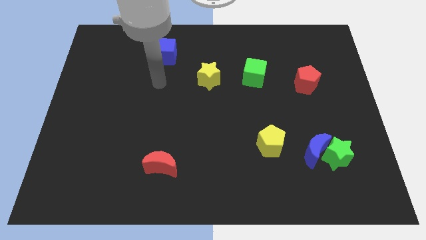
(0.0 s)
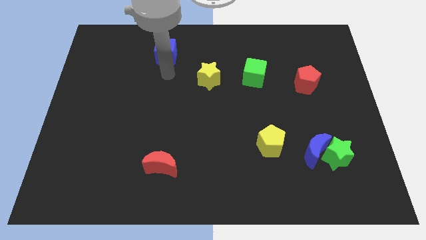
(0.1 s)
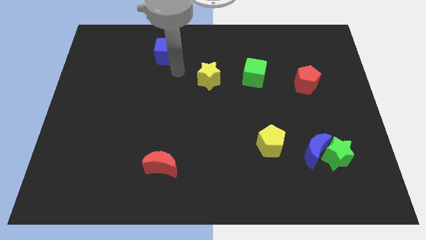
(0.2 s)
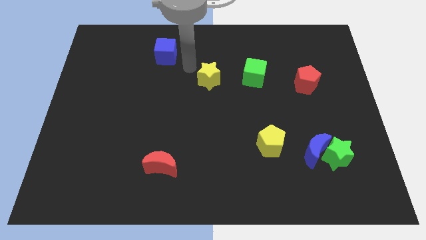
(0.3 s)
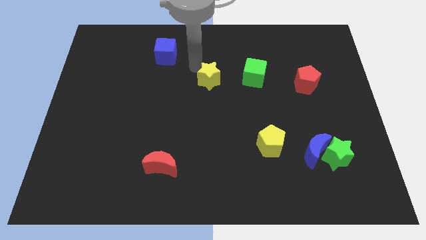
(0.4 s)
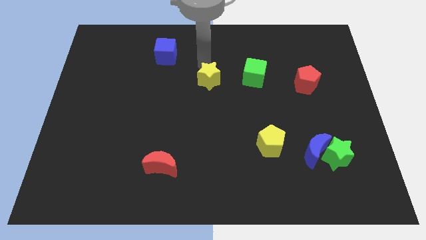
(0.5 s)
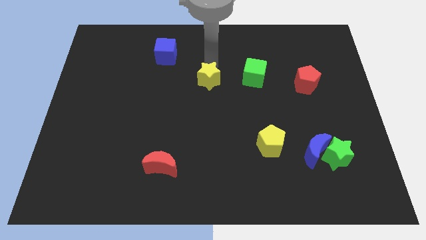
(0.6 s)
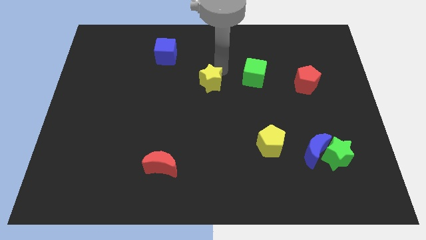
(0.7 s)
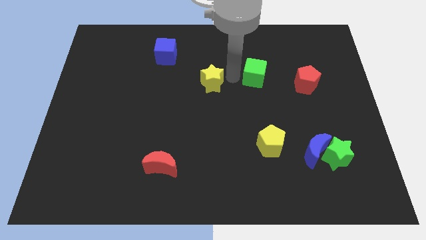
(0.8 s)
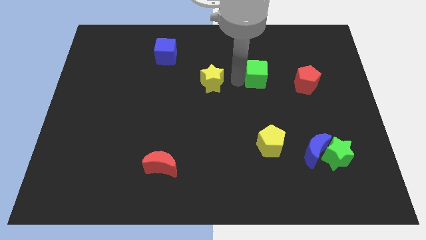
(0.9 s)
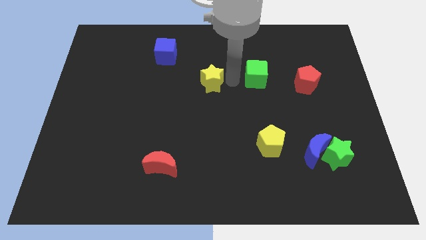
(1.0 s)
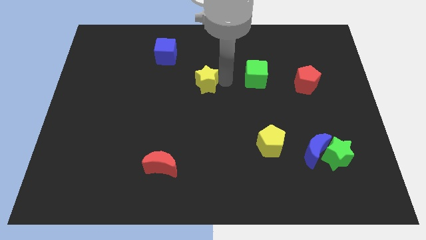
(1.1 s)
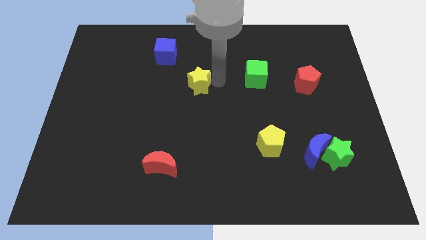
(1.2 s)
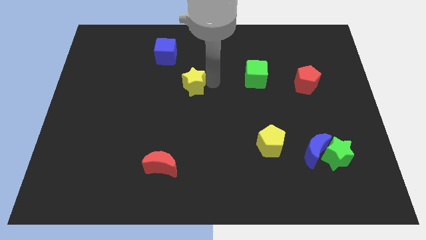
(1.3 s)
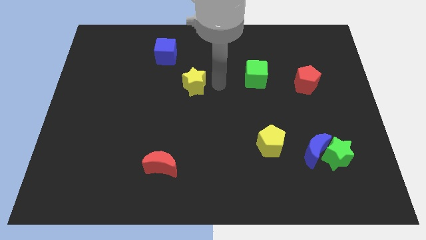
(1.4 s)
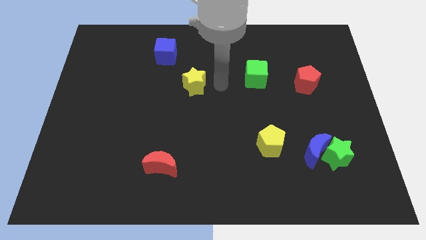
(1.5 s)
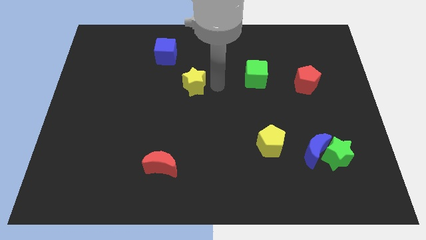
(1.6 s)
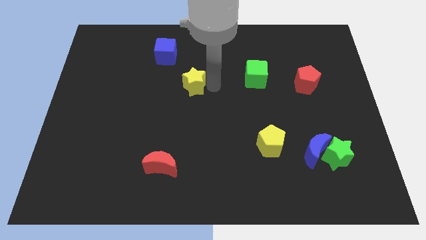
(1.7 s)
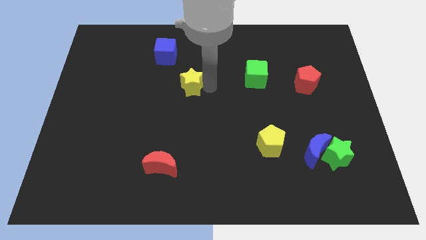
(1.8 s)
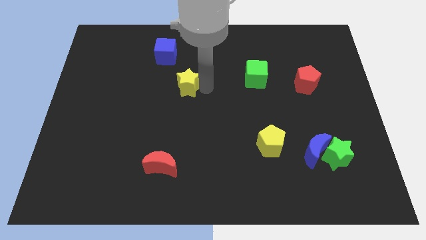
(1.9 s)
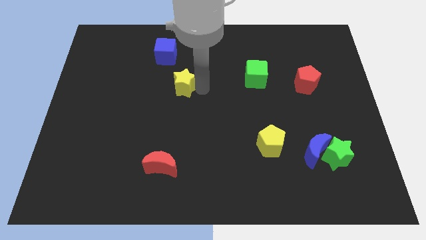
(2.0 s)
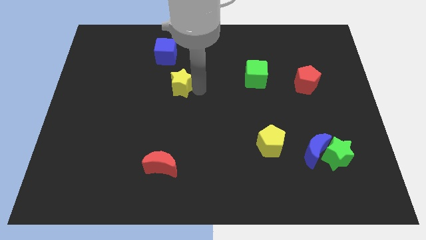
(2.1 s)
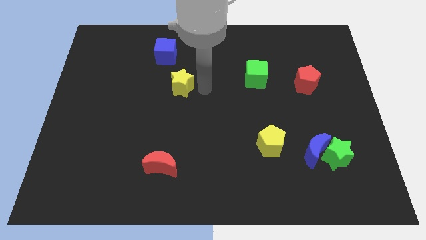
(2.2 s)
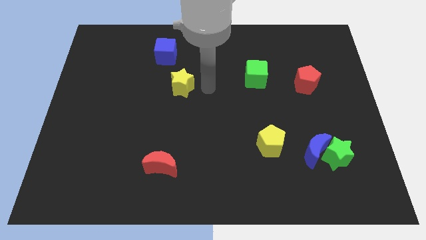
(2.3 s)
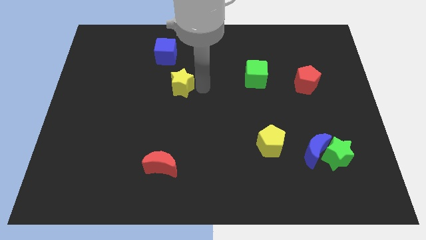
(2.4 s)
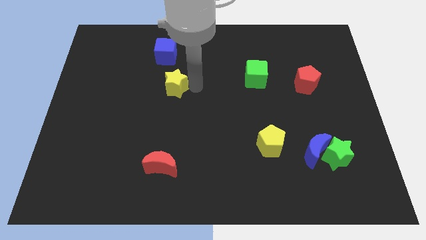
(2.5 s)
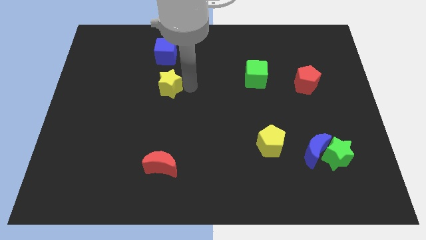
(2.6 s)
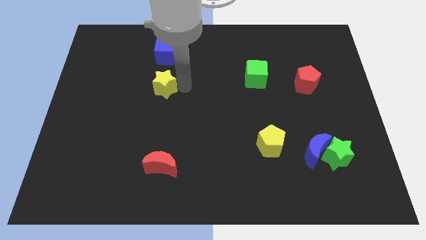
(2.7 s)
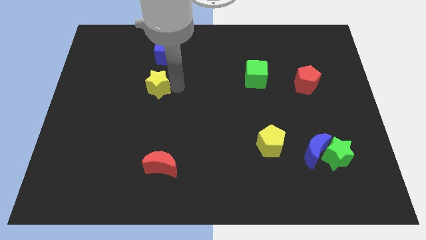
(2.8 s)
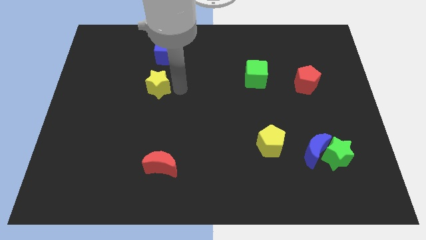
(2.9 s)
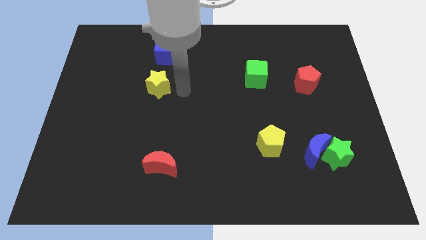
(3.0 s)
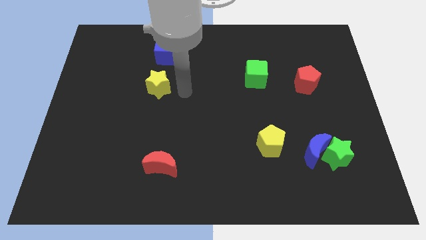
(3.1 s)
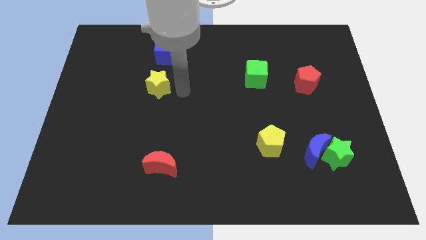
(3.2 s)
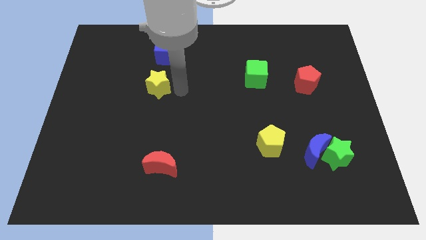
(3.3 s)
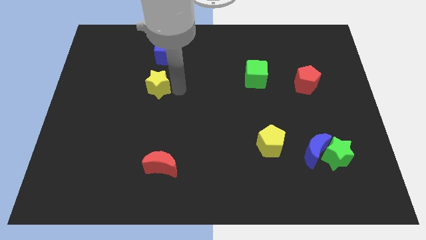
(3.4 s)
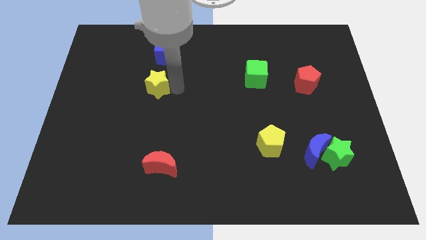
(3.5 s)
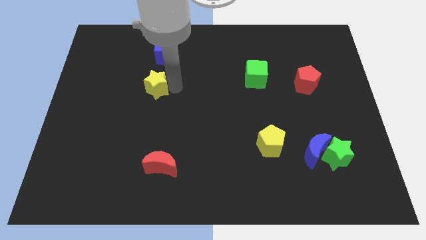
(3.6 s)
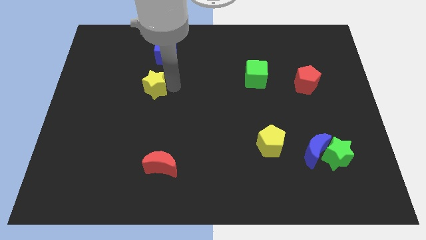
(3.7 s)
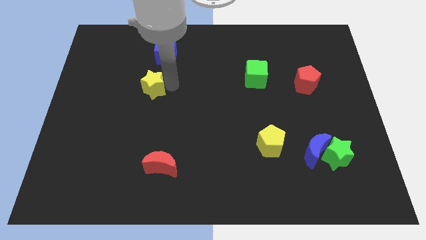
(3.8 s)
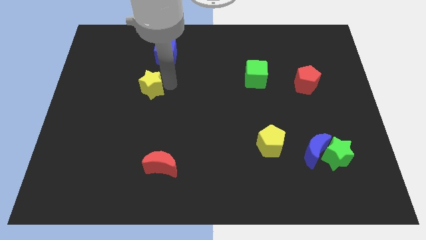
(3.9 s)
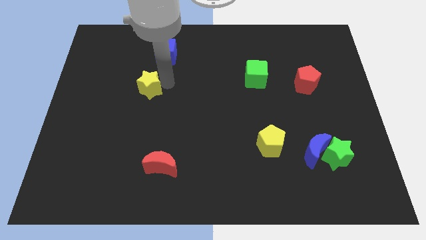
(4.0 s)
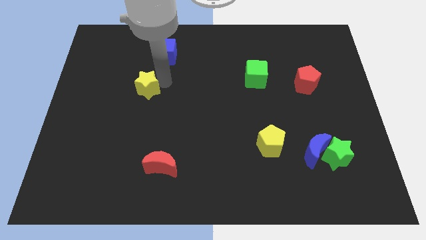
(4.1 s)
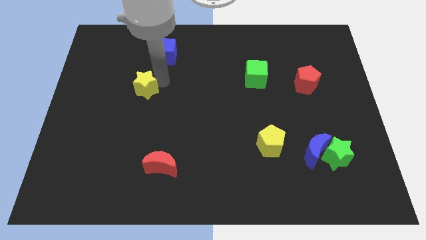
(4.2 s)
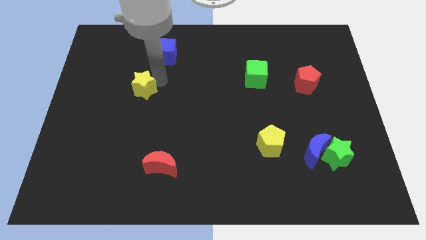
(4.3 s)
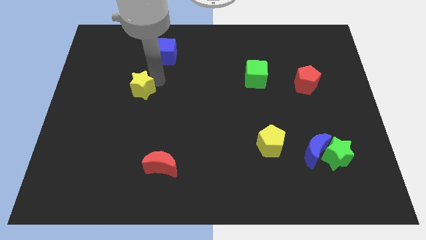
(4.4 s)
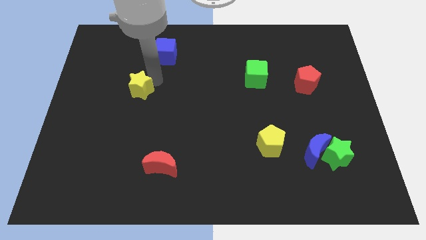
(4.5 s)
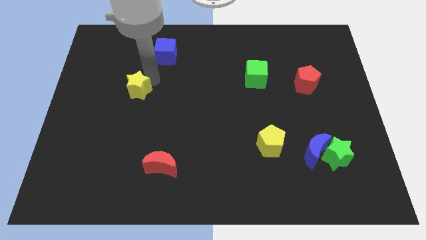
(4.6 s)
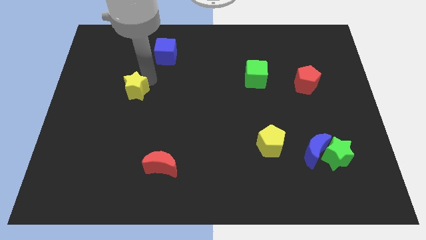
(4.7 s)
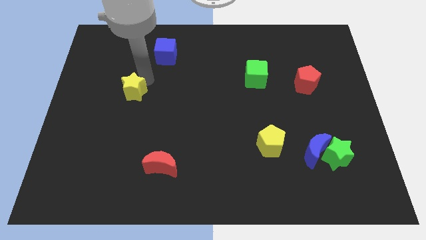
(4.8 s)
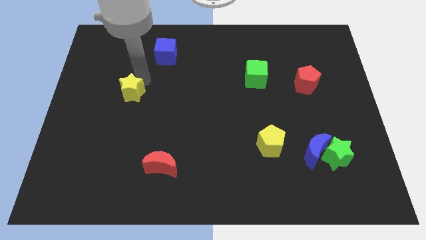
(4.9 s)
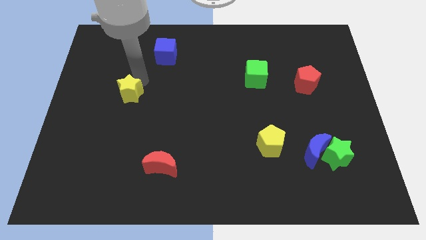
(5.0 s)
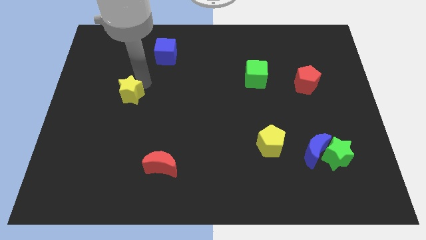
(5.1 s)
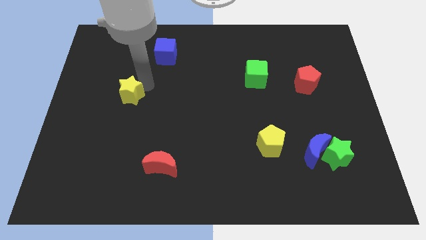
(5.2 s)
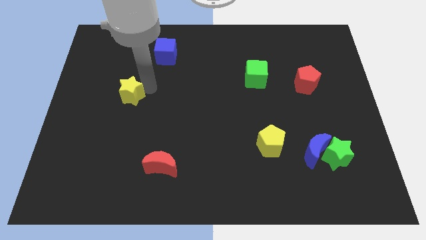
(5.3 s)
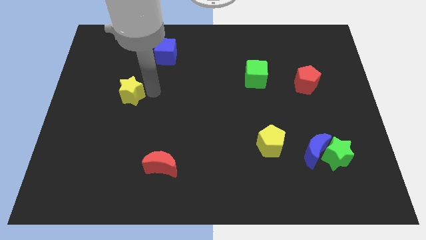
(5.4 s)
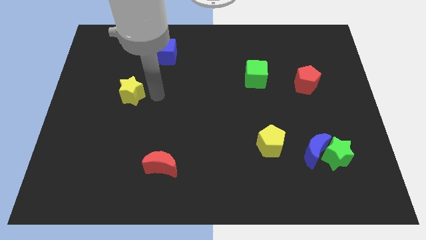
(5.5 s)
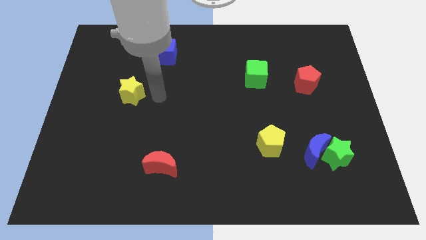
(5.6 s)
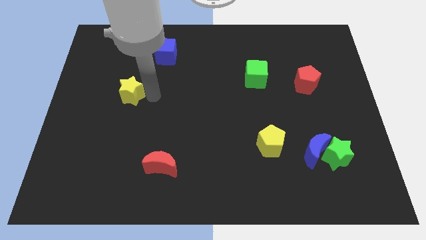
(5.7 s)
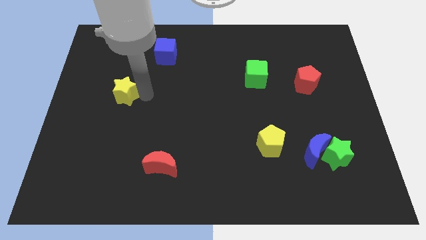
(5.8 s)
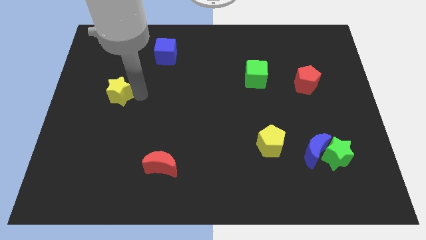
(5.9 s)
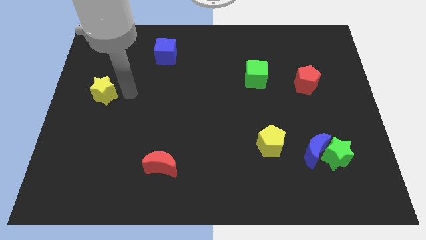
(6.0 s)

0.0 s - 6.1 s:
push the yellow star to the center left
